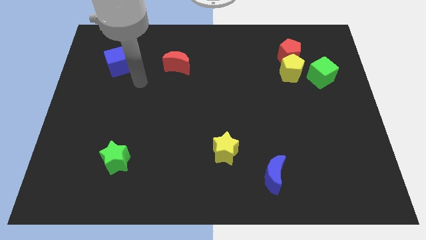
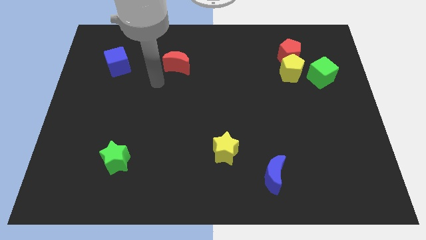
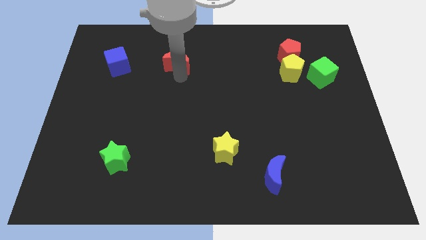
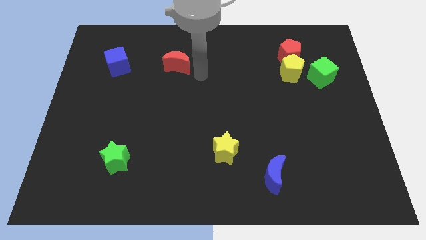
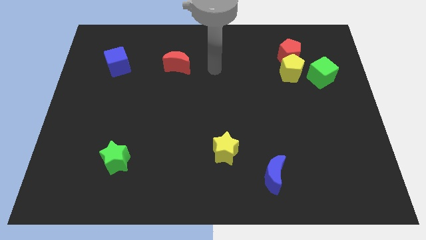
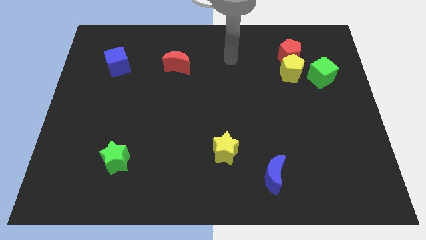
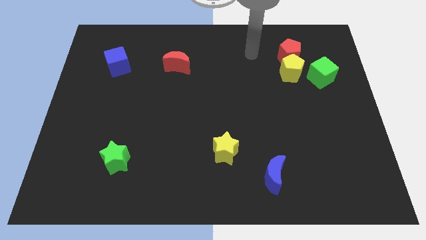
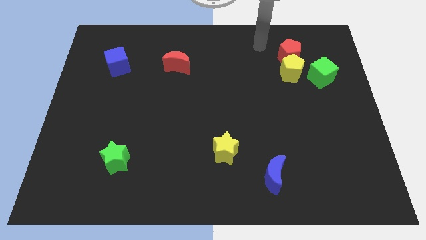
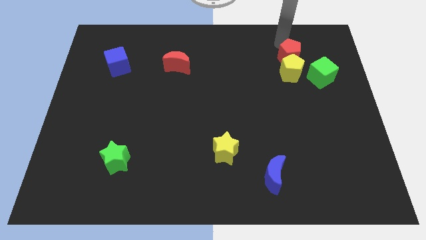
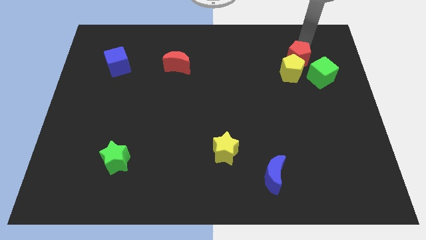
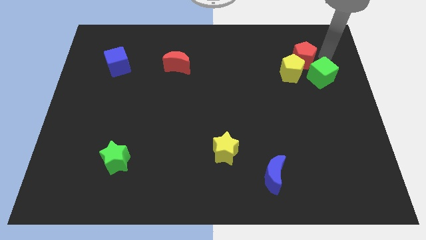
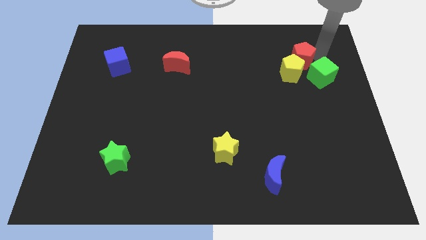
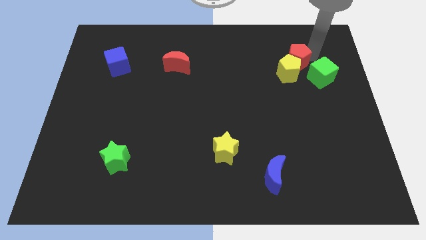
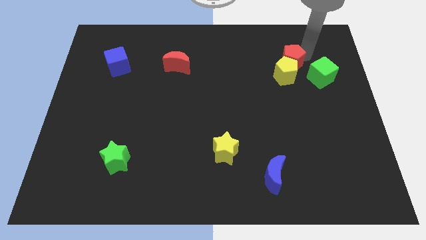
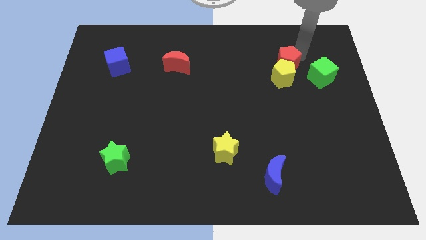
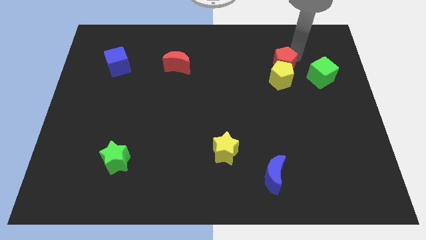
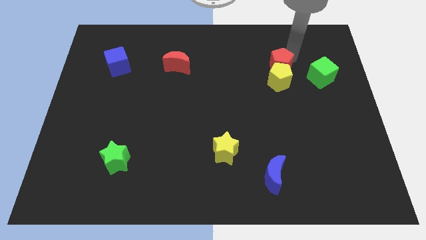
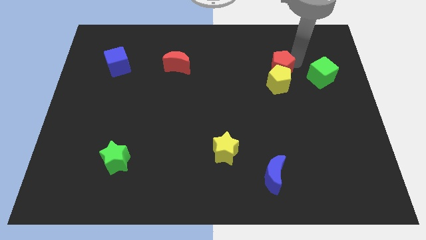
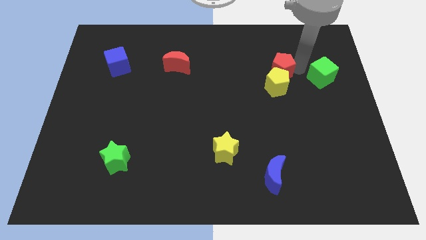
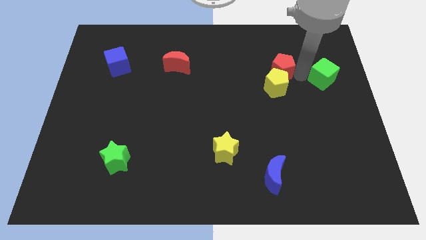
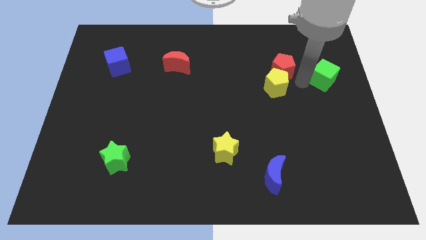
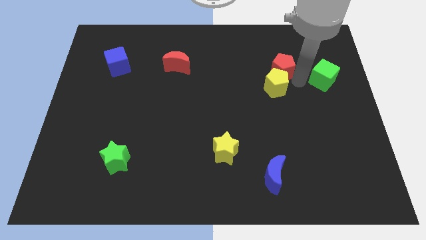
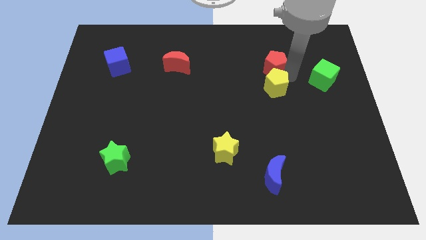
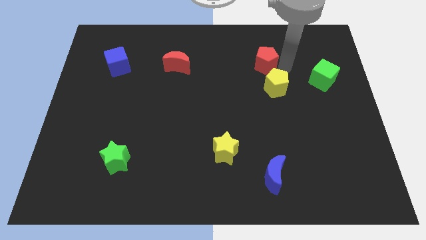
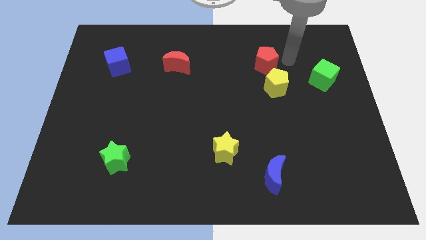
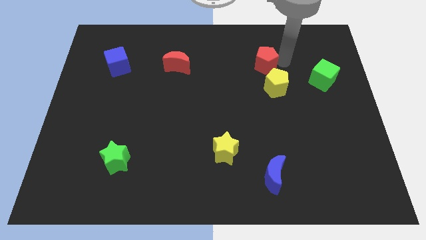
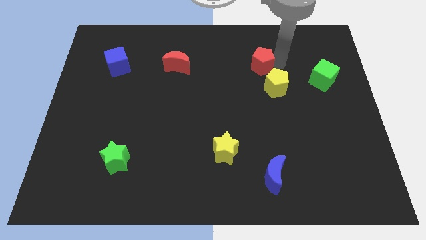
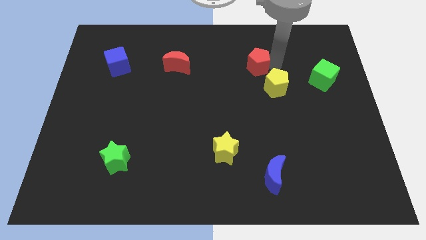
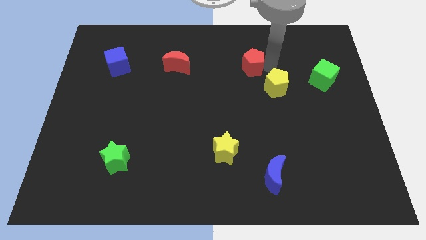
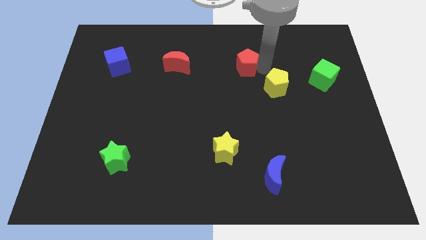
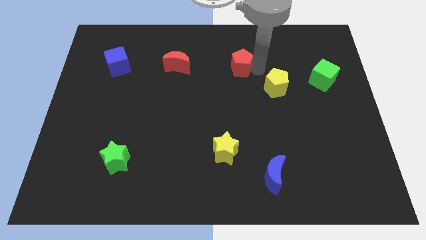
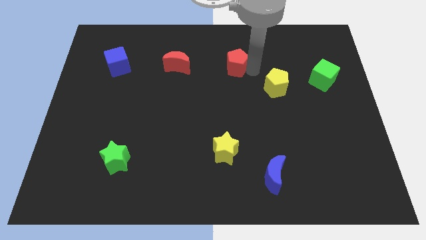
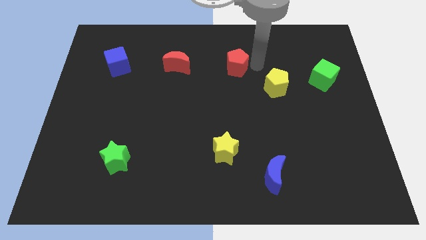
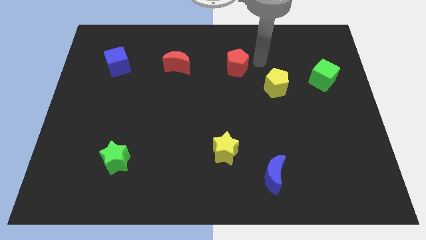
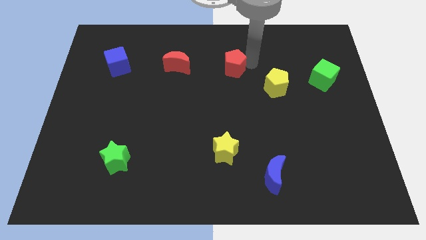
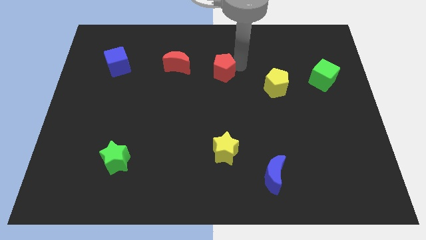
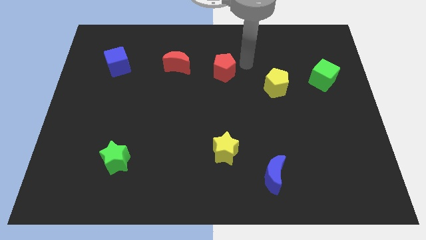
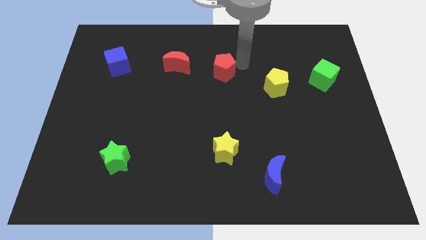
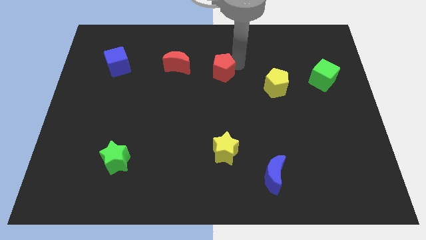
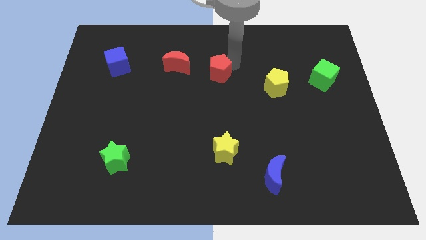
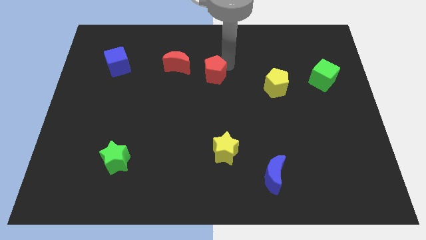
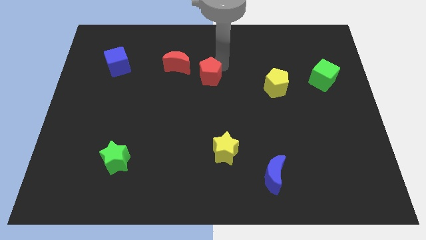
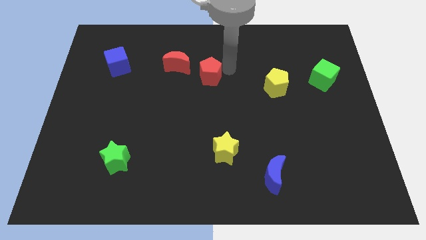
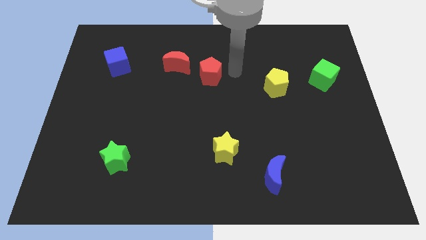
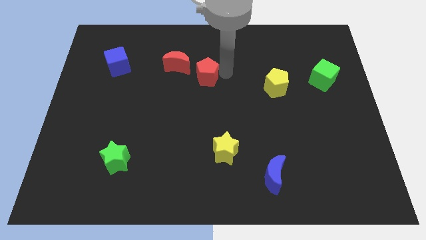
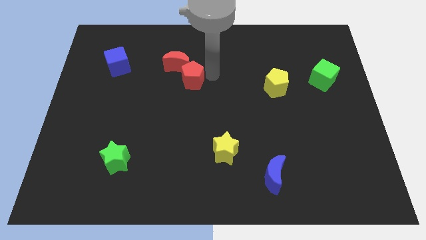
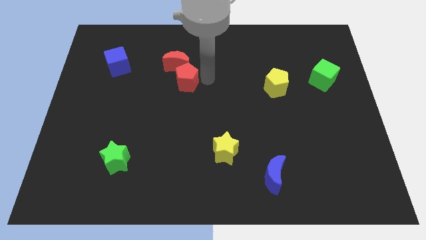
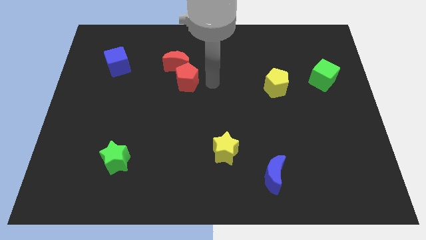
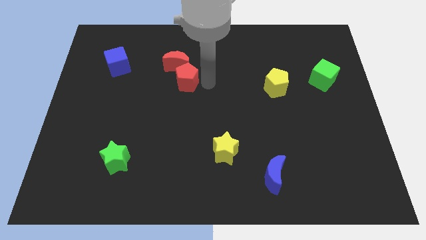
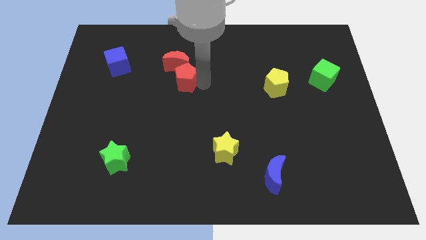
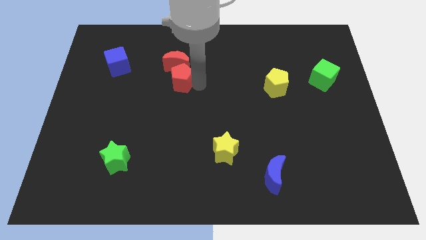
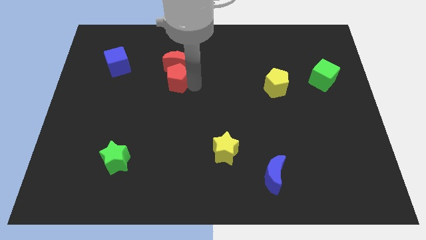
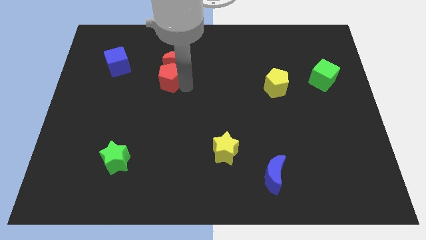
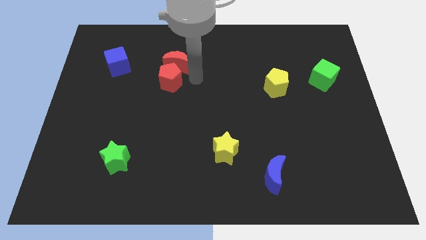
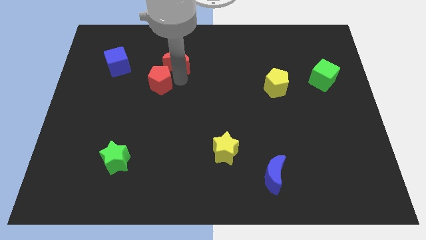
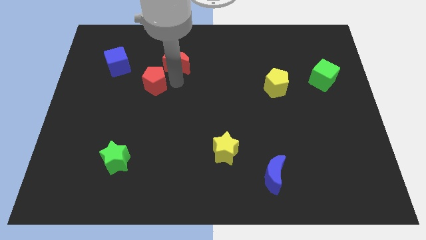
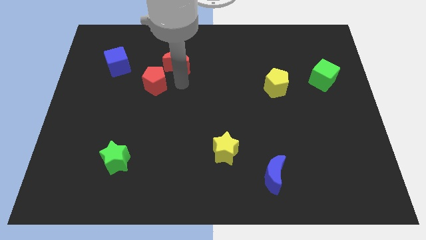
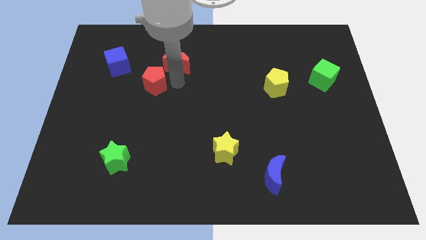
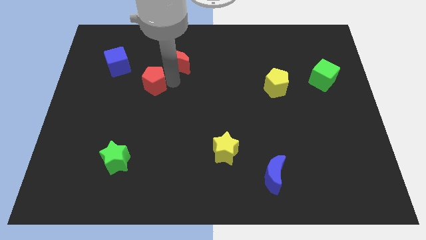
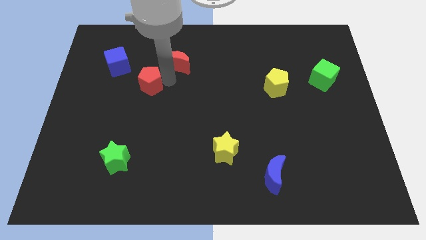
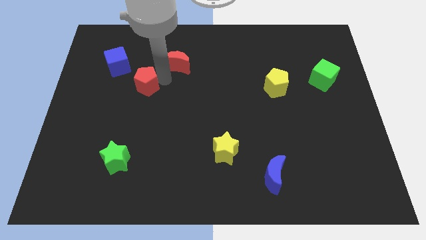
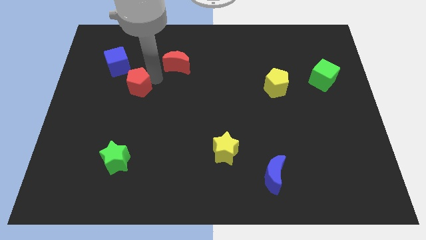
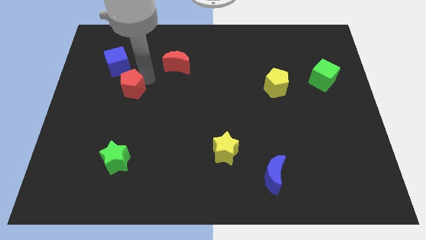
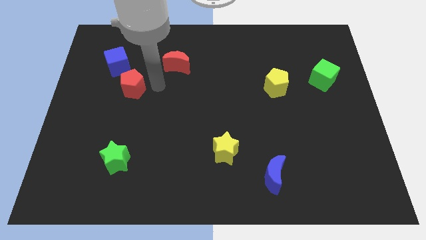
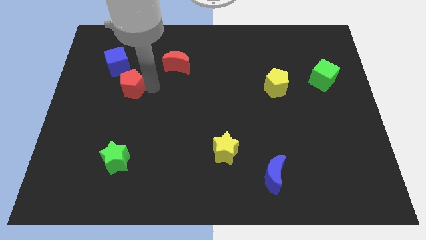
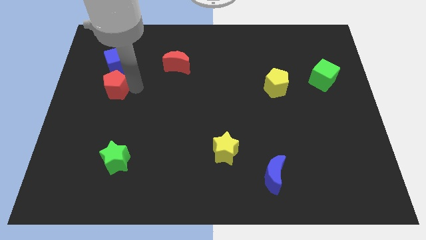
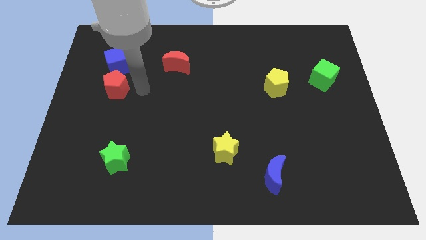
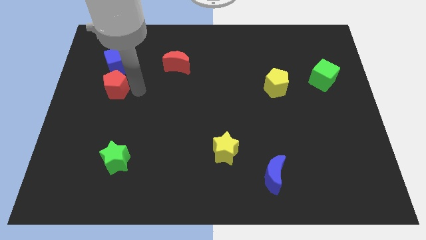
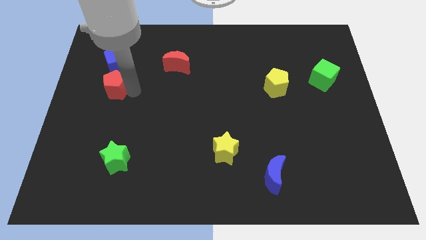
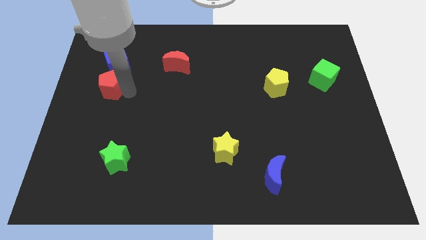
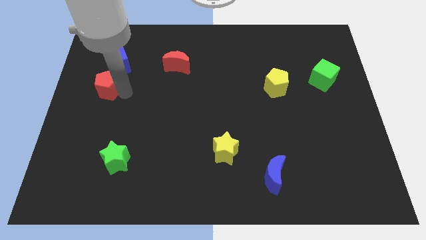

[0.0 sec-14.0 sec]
push the red pentagon to the left side
